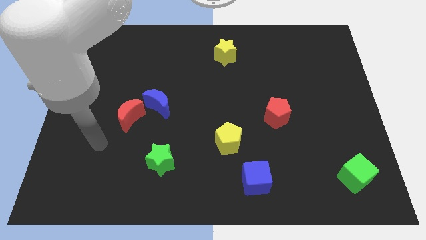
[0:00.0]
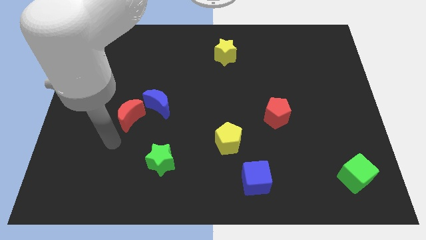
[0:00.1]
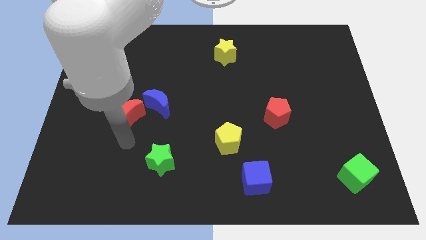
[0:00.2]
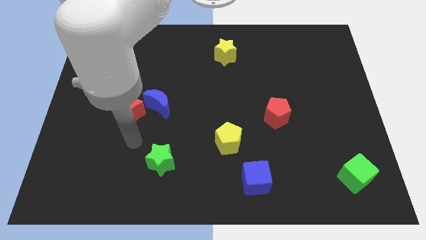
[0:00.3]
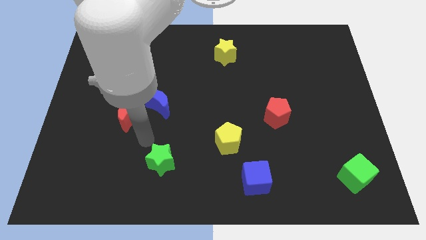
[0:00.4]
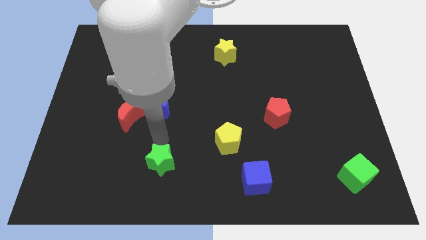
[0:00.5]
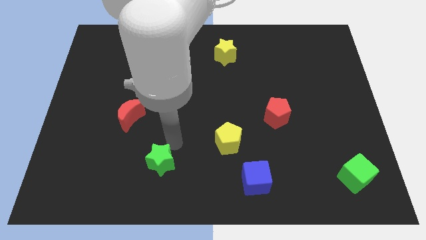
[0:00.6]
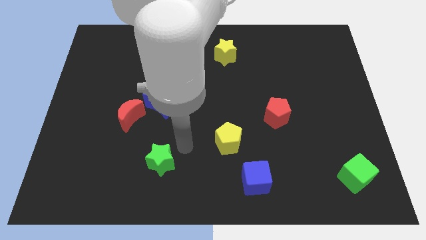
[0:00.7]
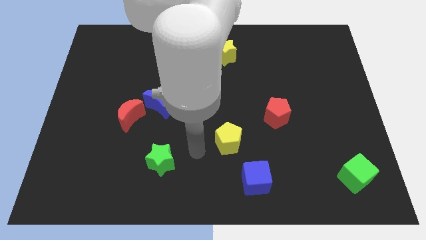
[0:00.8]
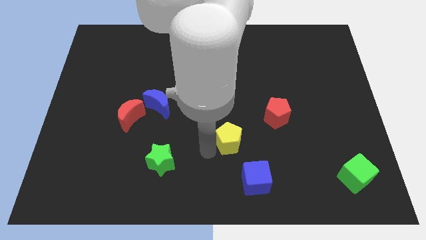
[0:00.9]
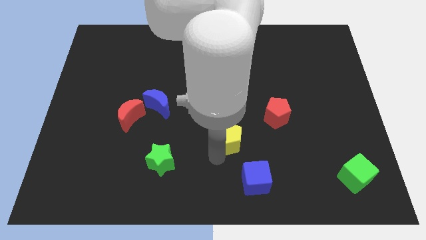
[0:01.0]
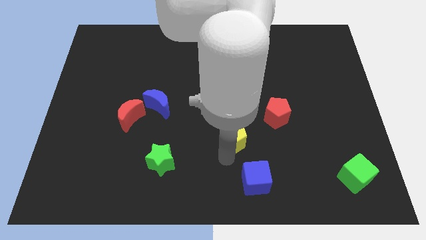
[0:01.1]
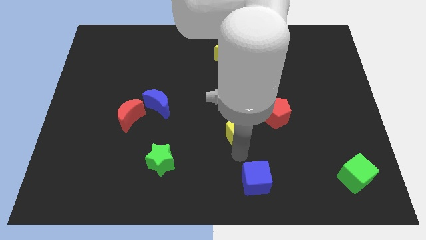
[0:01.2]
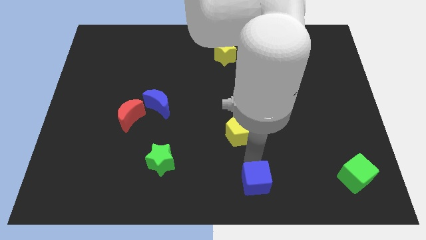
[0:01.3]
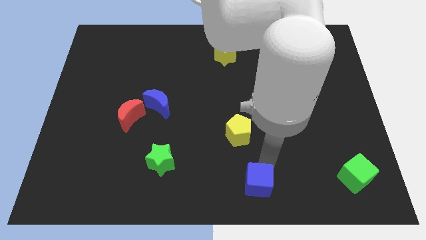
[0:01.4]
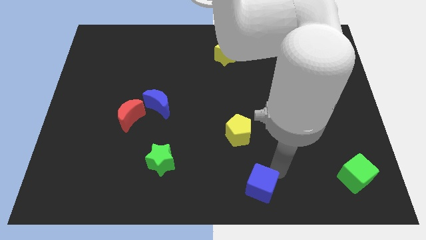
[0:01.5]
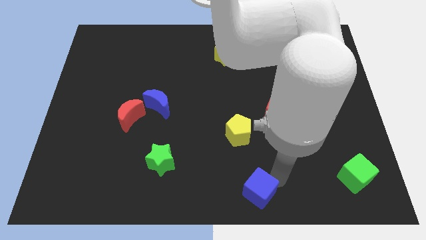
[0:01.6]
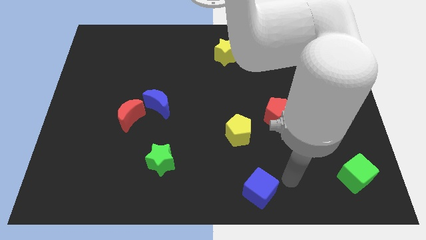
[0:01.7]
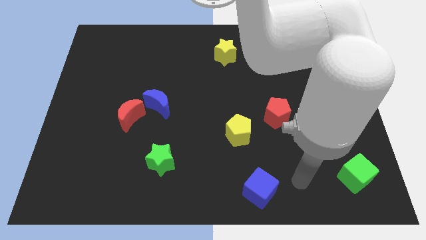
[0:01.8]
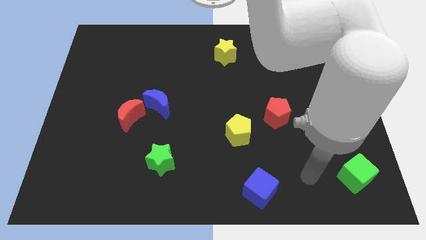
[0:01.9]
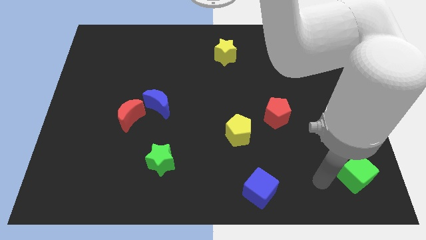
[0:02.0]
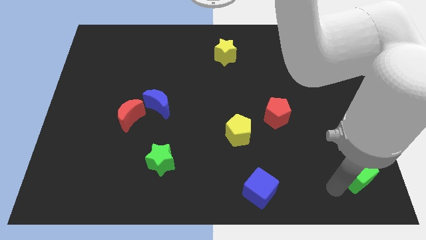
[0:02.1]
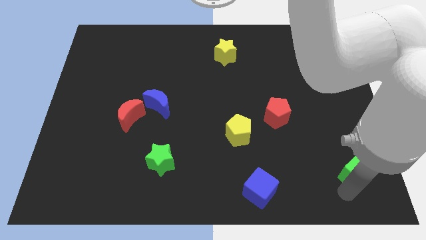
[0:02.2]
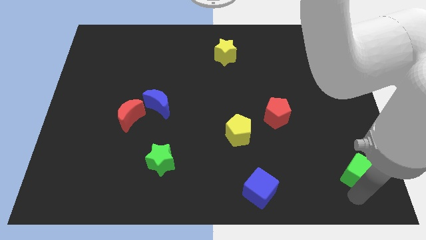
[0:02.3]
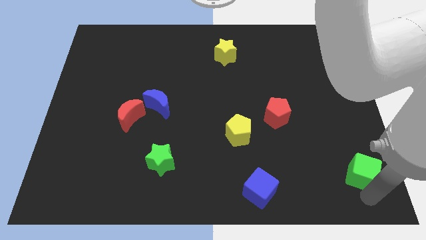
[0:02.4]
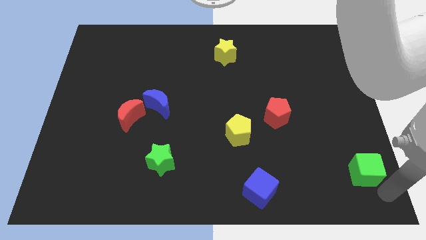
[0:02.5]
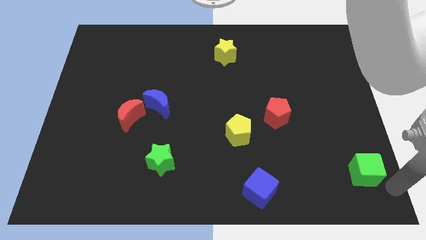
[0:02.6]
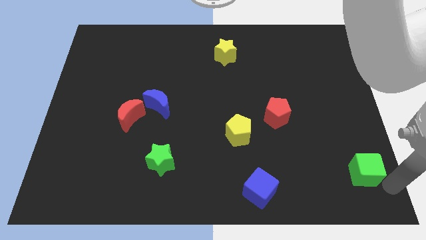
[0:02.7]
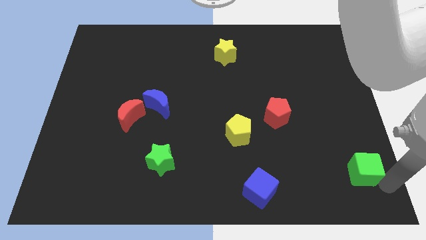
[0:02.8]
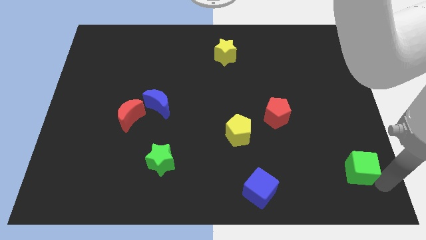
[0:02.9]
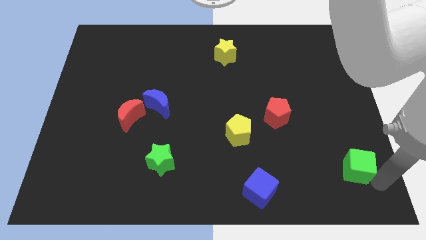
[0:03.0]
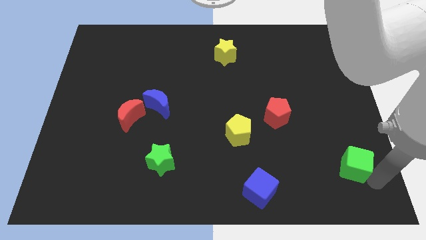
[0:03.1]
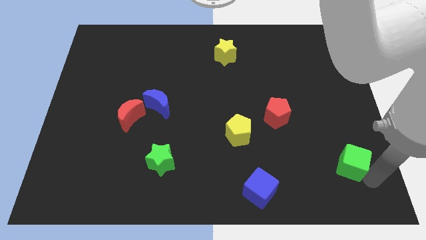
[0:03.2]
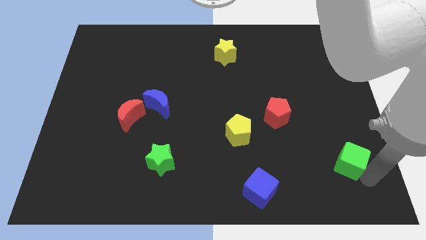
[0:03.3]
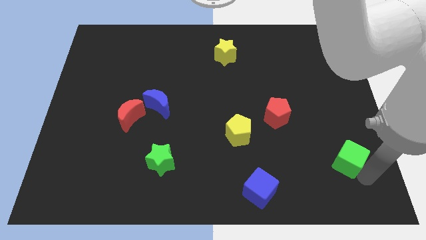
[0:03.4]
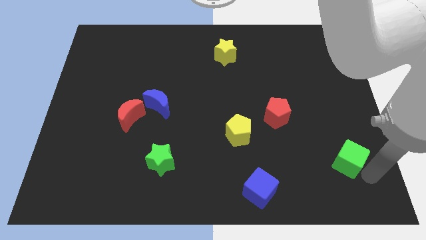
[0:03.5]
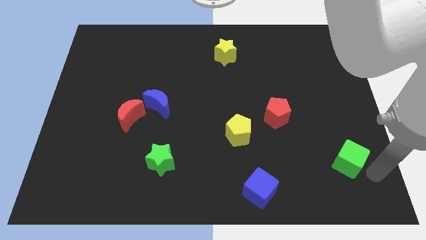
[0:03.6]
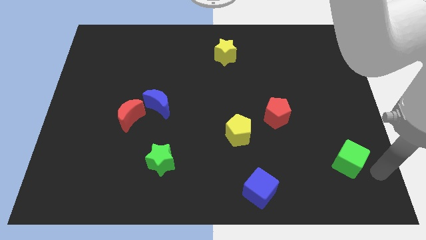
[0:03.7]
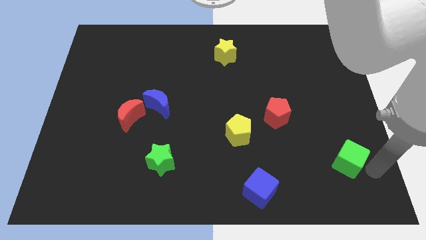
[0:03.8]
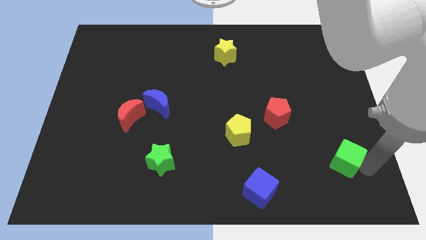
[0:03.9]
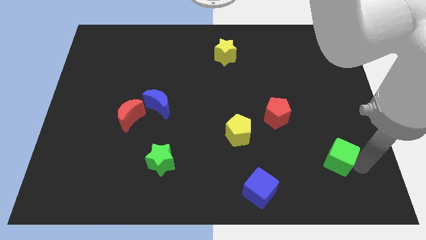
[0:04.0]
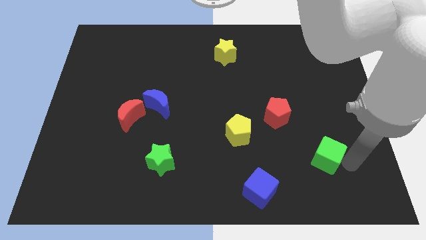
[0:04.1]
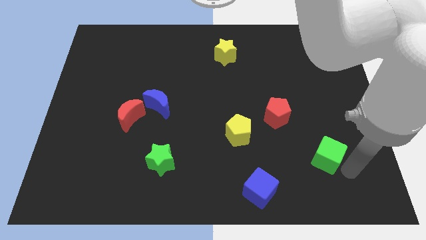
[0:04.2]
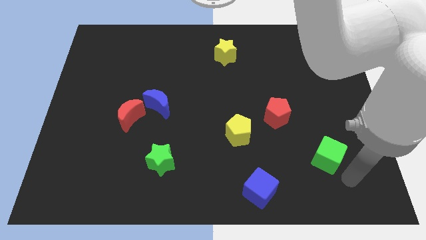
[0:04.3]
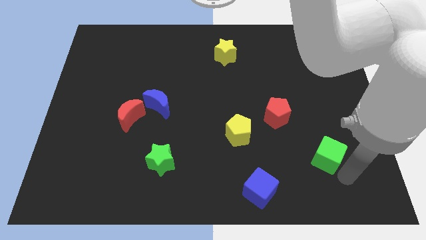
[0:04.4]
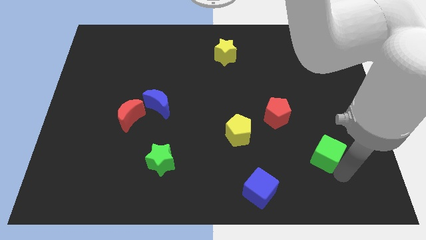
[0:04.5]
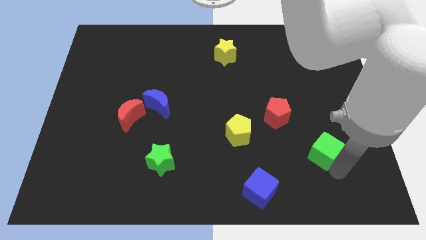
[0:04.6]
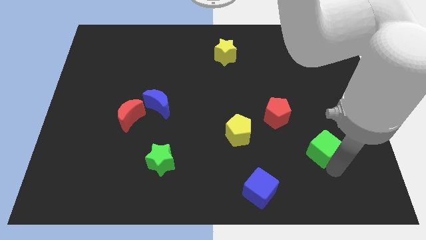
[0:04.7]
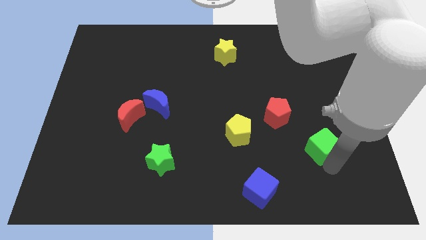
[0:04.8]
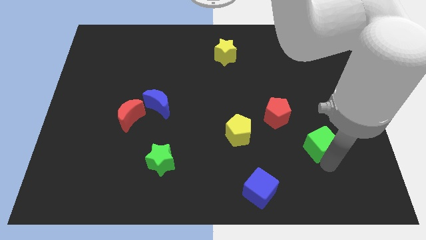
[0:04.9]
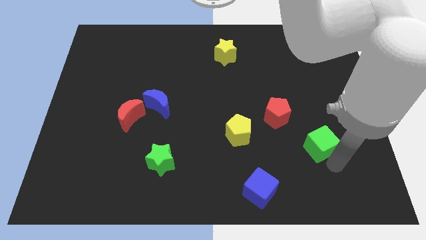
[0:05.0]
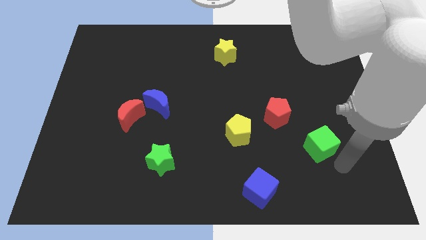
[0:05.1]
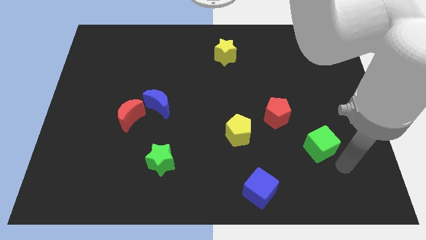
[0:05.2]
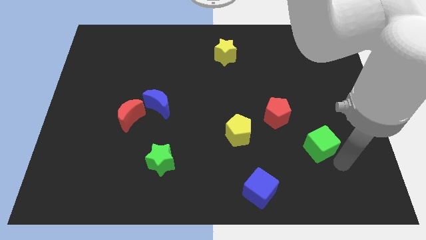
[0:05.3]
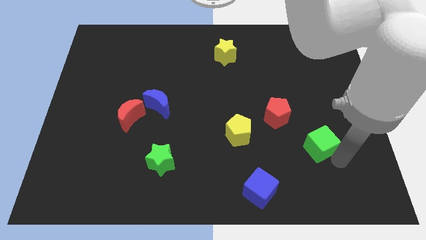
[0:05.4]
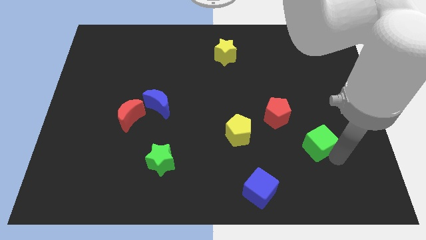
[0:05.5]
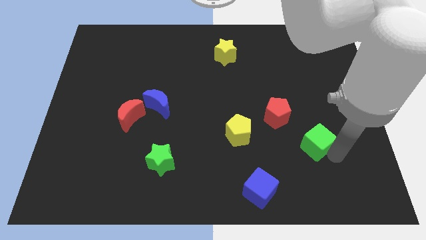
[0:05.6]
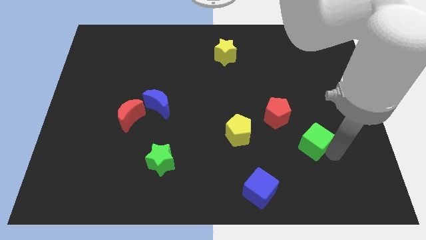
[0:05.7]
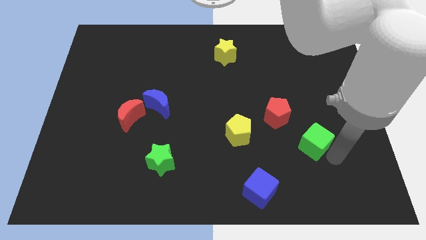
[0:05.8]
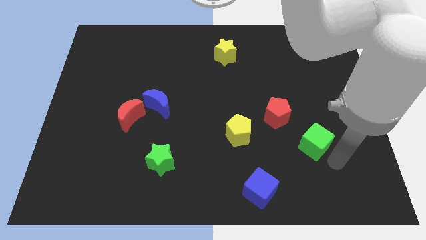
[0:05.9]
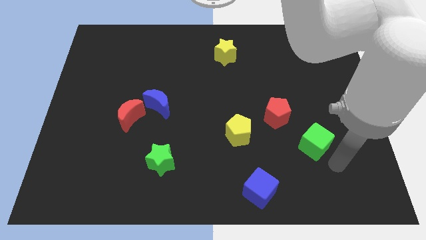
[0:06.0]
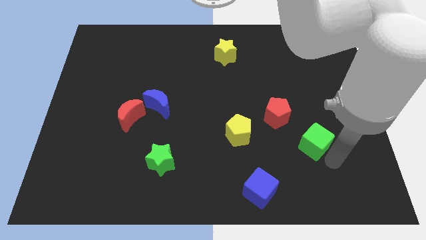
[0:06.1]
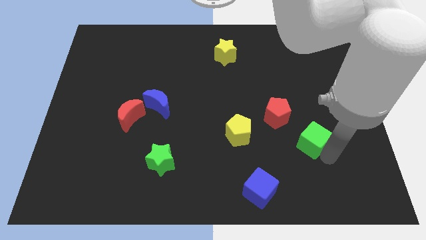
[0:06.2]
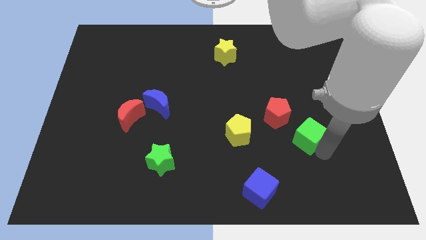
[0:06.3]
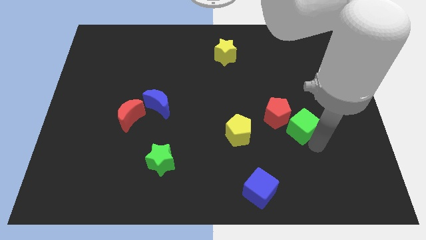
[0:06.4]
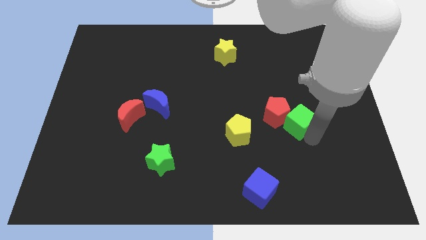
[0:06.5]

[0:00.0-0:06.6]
move the green cube next to the red pentagon

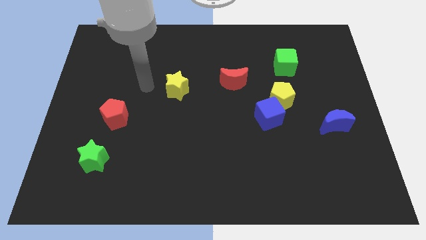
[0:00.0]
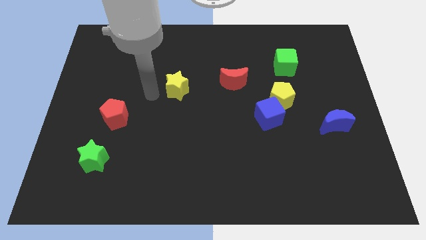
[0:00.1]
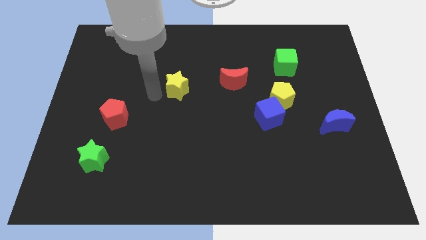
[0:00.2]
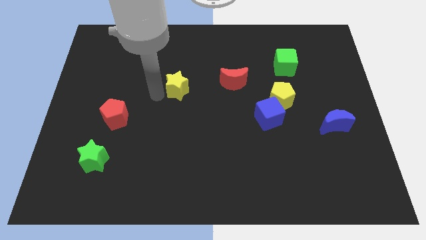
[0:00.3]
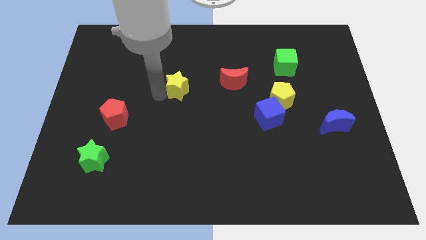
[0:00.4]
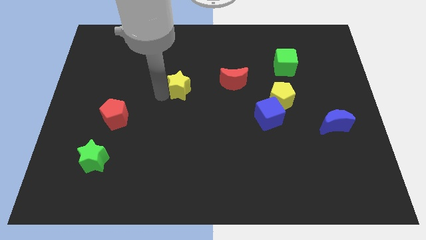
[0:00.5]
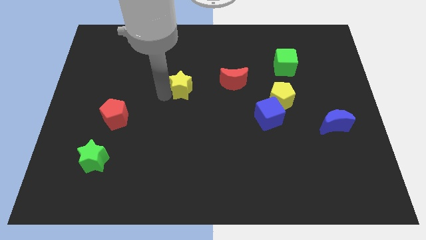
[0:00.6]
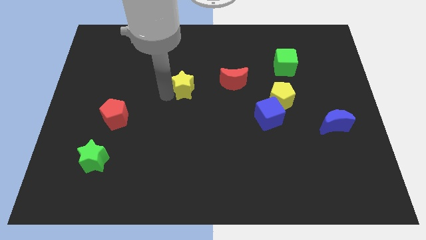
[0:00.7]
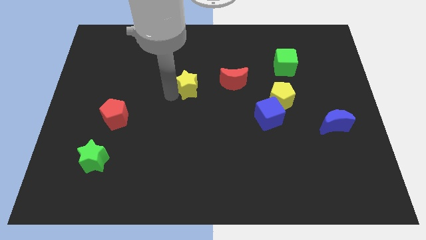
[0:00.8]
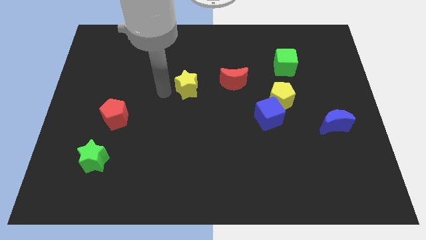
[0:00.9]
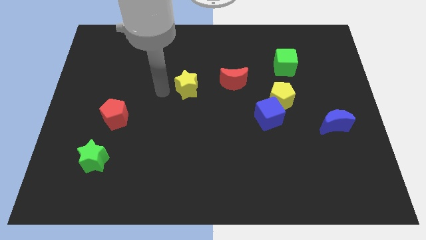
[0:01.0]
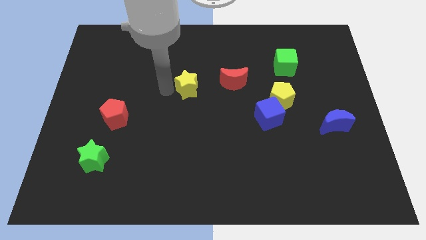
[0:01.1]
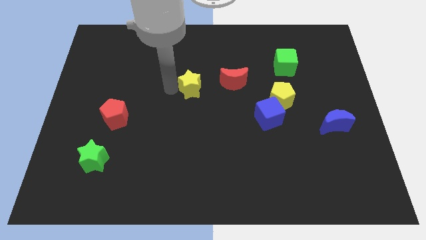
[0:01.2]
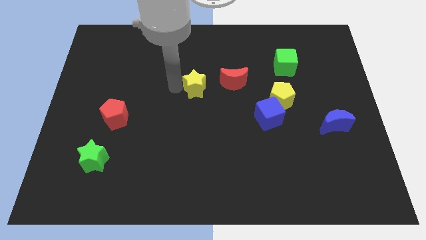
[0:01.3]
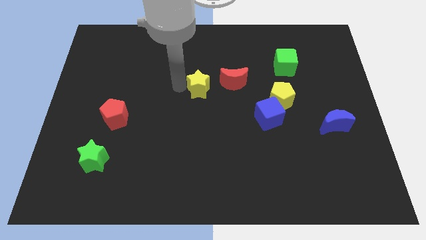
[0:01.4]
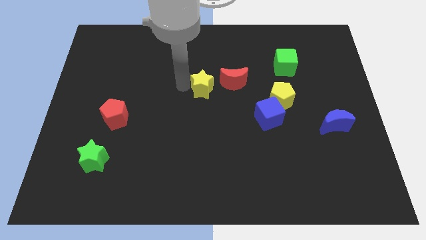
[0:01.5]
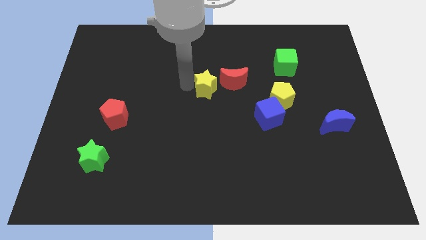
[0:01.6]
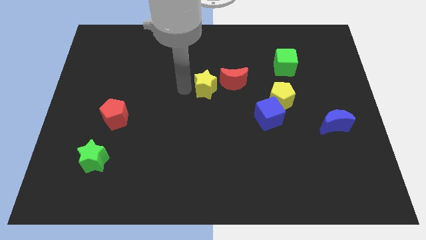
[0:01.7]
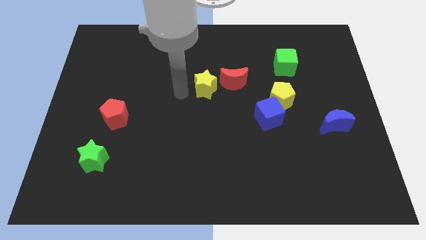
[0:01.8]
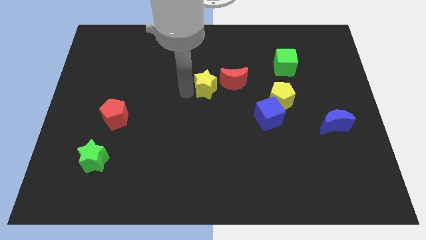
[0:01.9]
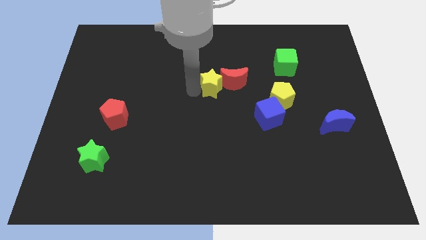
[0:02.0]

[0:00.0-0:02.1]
move the yellow star next to the red moon
